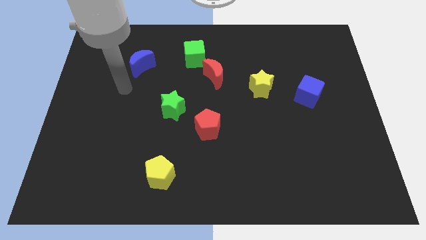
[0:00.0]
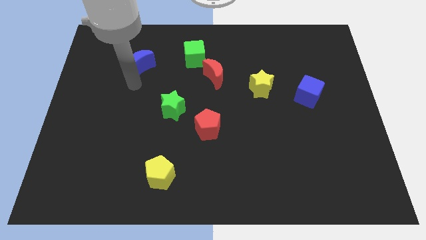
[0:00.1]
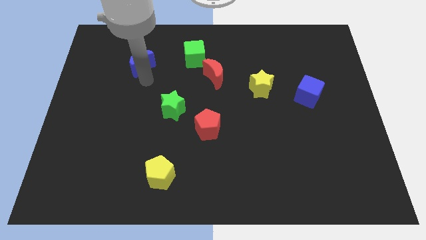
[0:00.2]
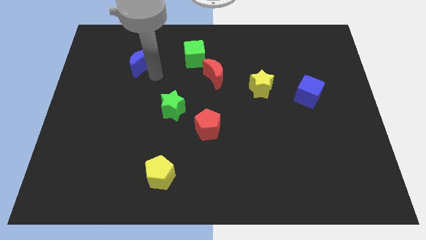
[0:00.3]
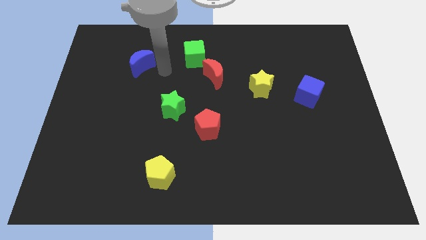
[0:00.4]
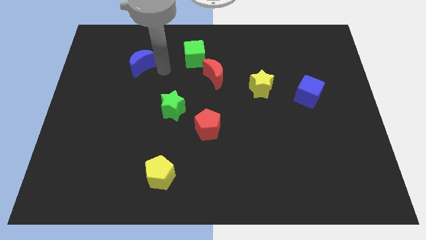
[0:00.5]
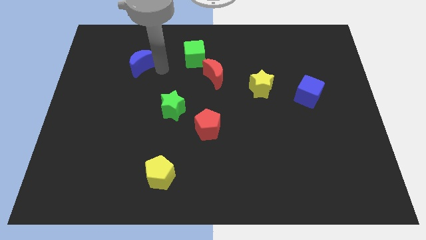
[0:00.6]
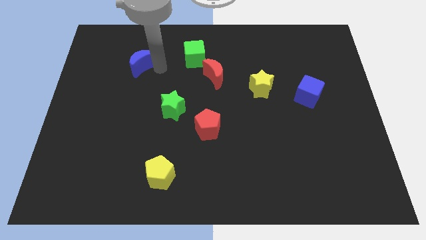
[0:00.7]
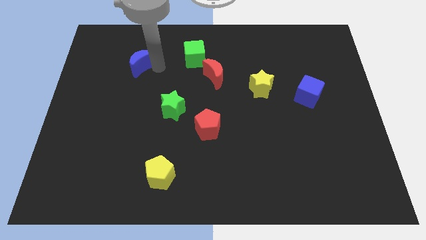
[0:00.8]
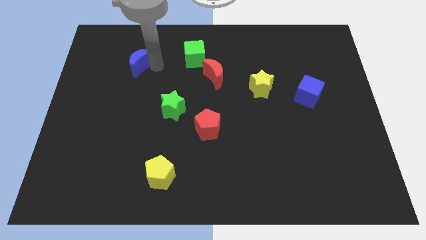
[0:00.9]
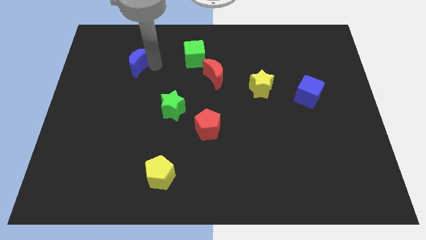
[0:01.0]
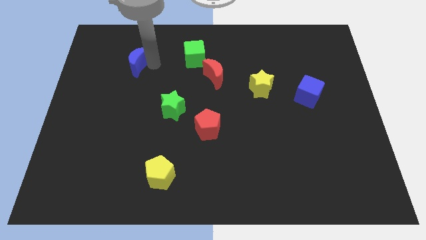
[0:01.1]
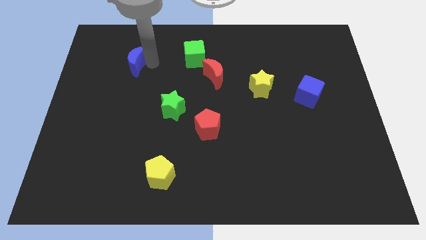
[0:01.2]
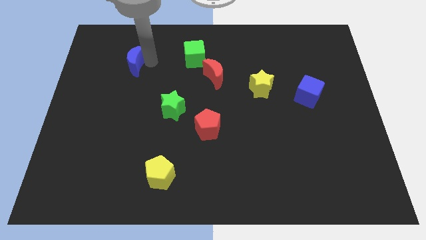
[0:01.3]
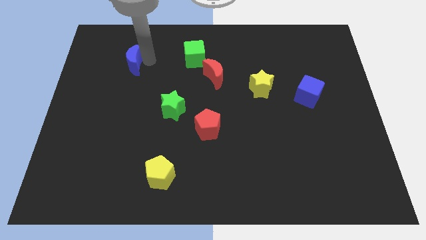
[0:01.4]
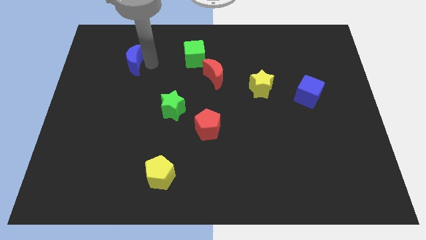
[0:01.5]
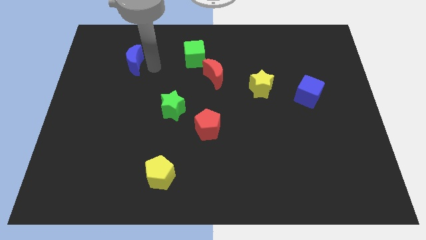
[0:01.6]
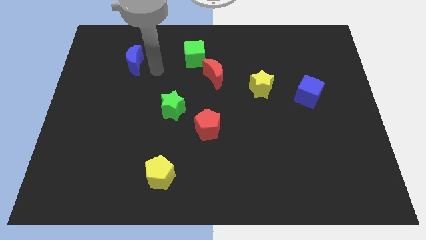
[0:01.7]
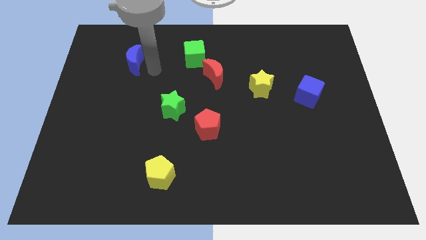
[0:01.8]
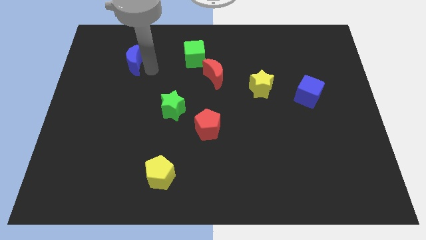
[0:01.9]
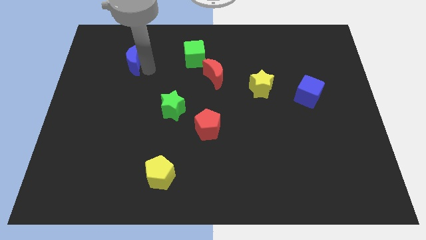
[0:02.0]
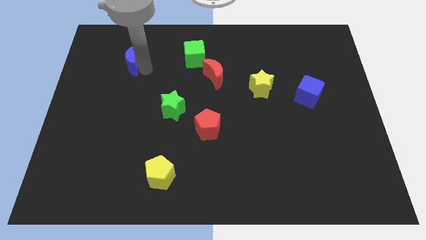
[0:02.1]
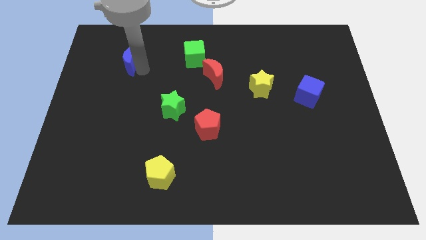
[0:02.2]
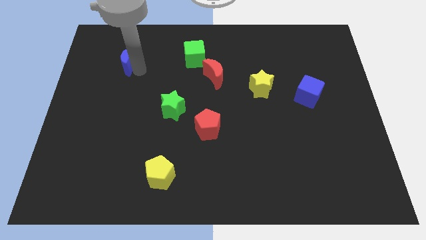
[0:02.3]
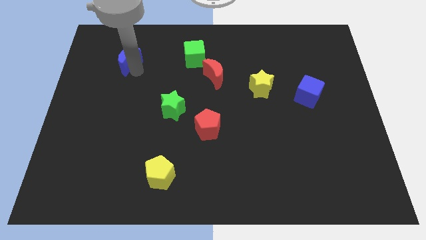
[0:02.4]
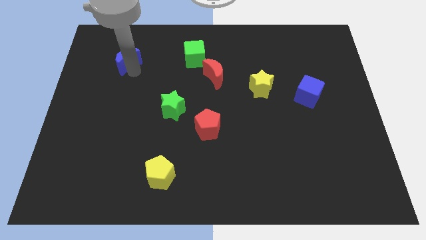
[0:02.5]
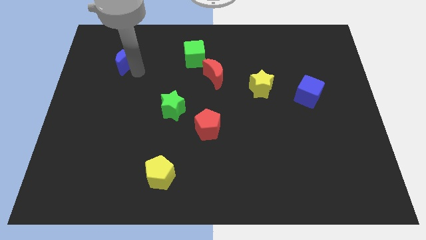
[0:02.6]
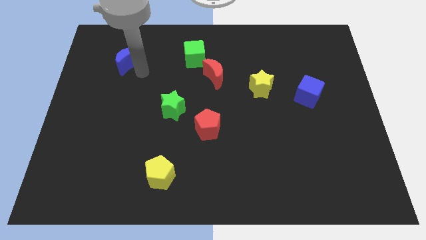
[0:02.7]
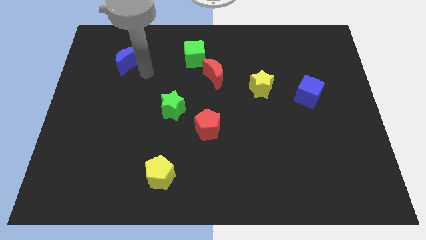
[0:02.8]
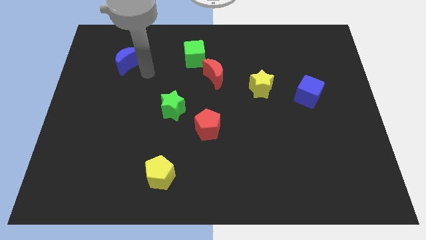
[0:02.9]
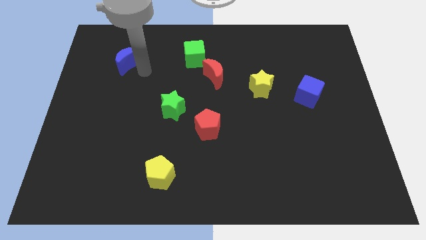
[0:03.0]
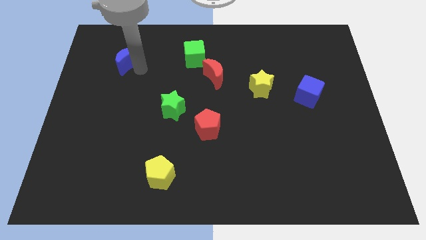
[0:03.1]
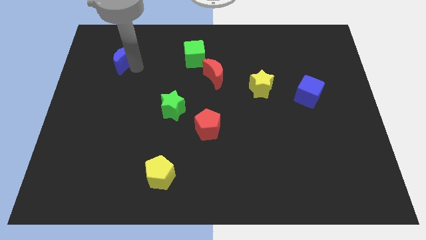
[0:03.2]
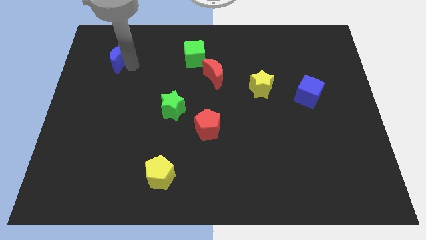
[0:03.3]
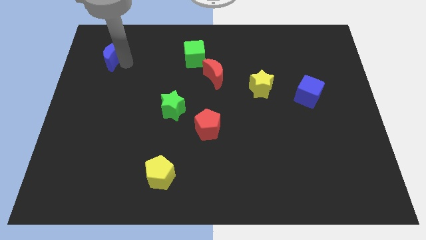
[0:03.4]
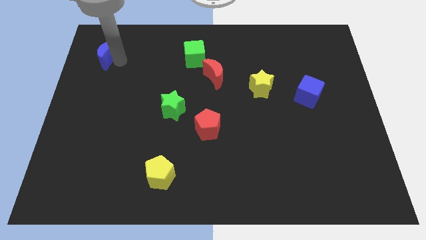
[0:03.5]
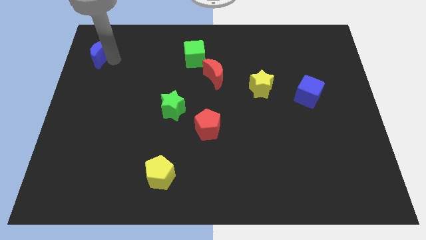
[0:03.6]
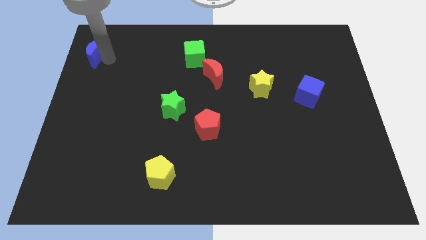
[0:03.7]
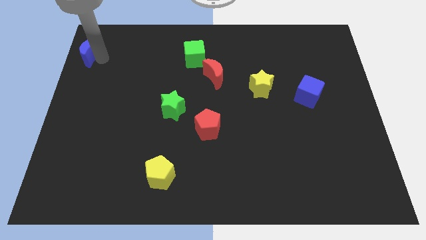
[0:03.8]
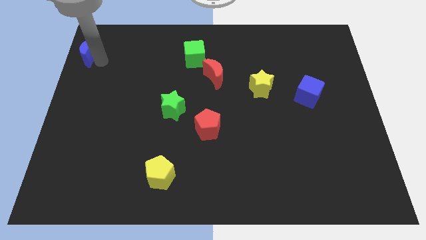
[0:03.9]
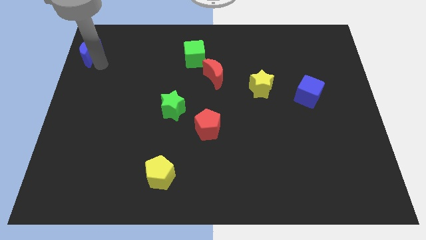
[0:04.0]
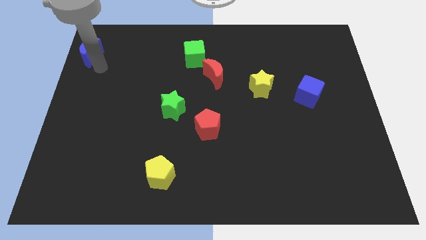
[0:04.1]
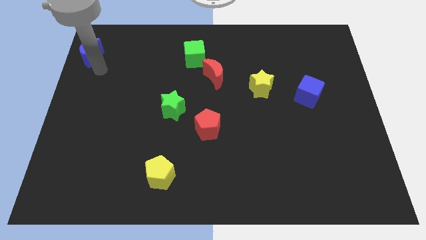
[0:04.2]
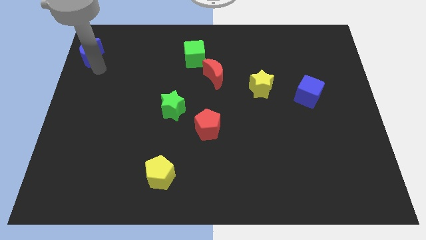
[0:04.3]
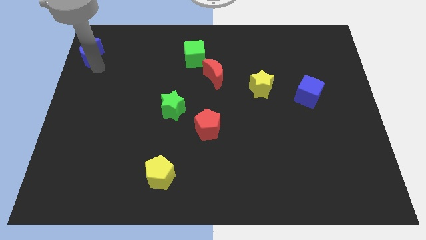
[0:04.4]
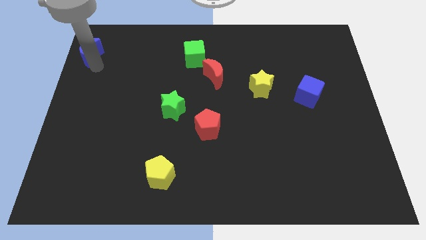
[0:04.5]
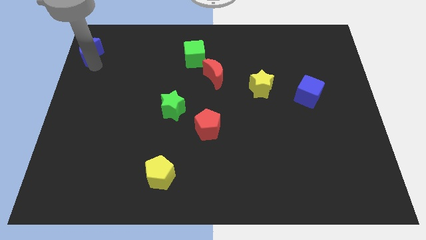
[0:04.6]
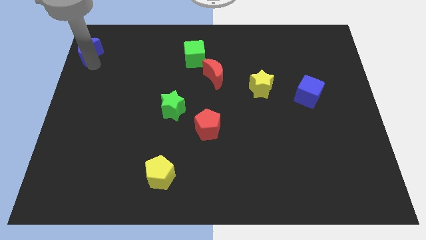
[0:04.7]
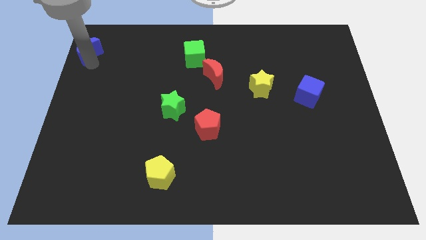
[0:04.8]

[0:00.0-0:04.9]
slide the blue moon to the upper left corner

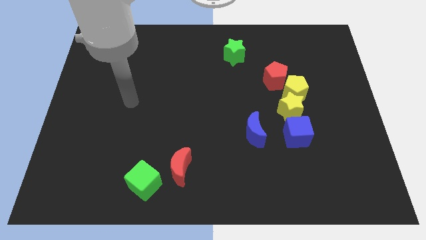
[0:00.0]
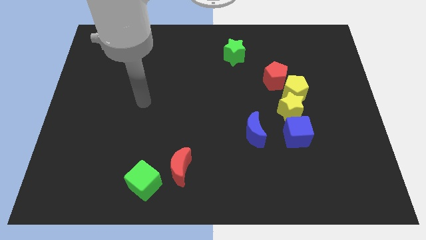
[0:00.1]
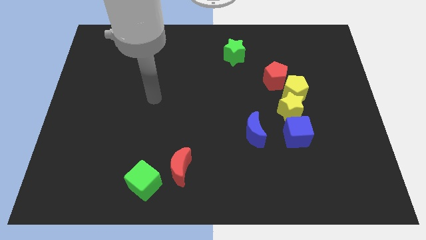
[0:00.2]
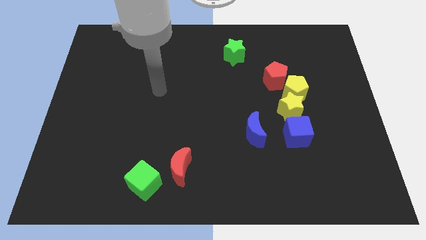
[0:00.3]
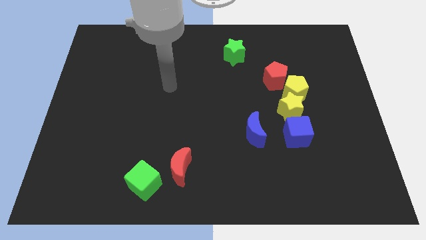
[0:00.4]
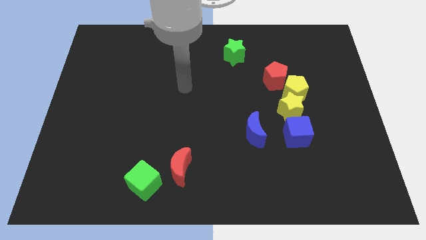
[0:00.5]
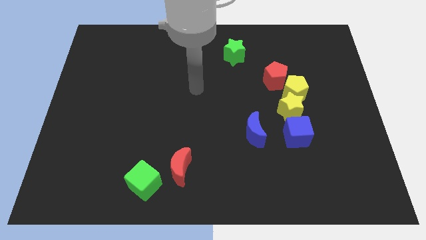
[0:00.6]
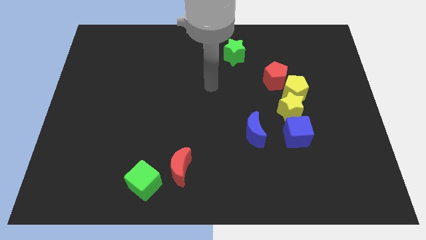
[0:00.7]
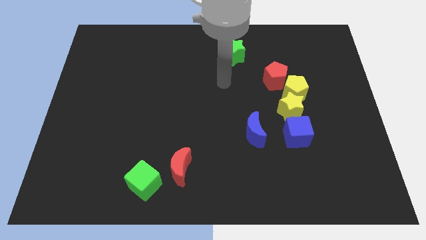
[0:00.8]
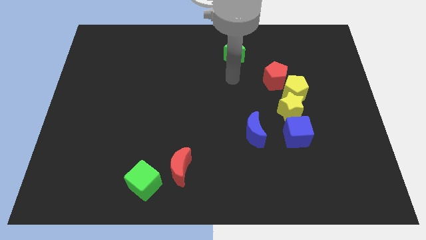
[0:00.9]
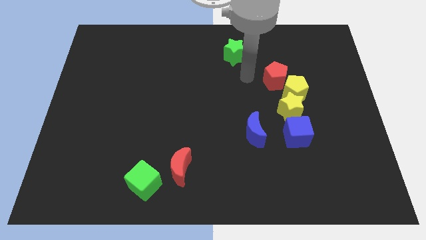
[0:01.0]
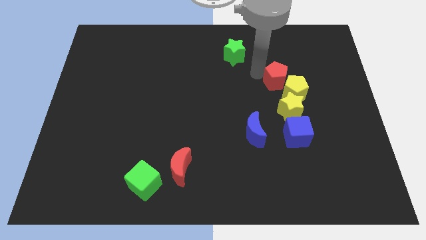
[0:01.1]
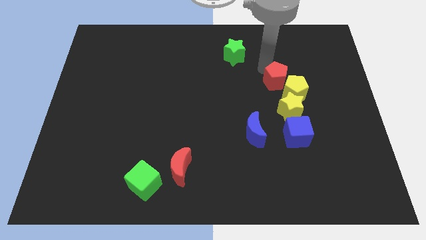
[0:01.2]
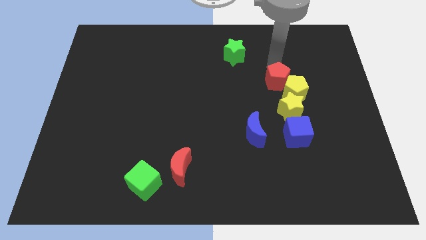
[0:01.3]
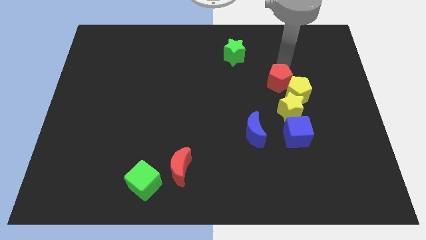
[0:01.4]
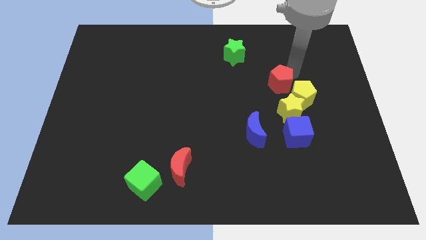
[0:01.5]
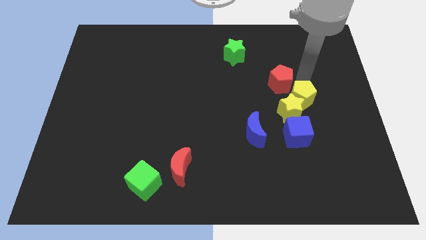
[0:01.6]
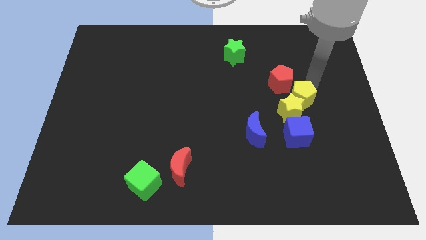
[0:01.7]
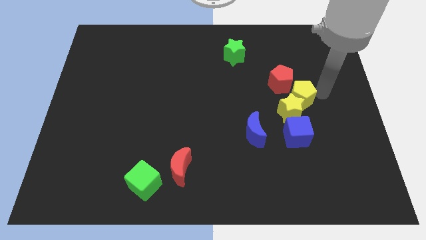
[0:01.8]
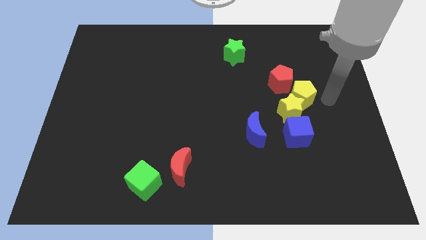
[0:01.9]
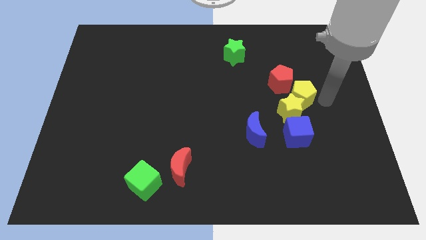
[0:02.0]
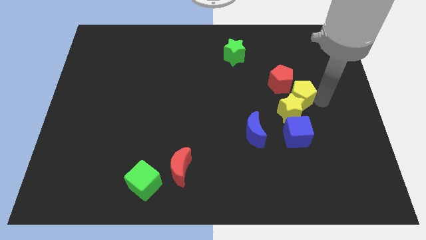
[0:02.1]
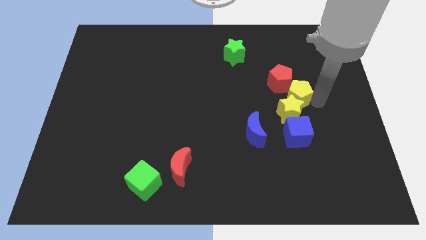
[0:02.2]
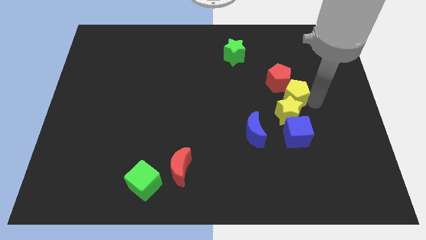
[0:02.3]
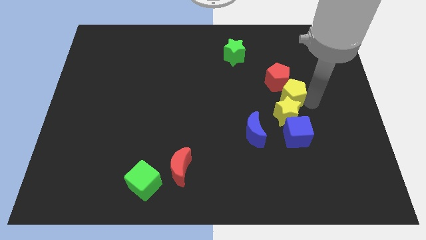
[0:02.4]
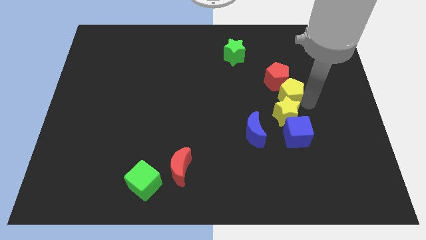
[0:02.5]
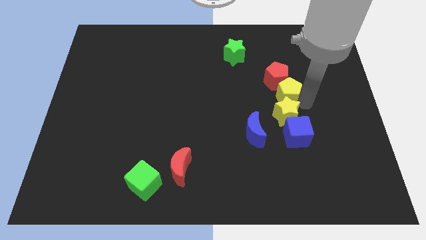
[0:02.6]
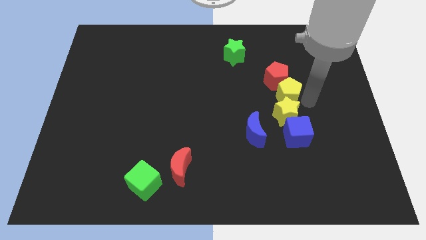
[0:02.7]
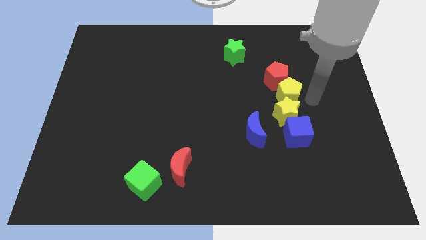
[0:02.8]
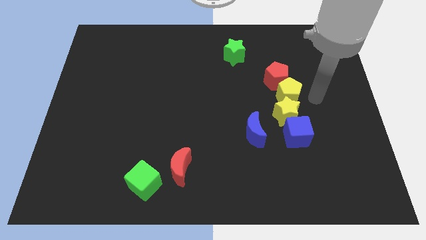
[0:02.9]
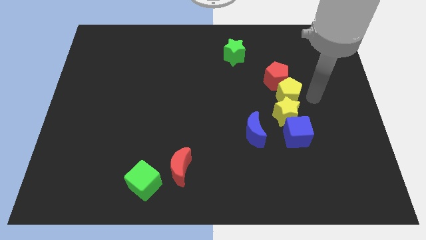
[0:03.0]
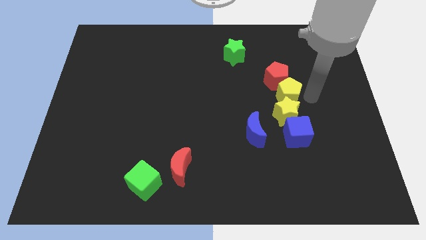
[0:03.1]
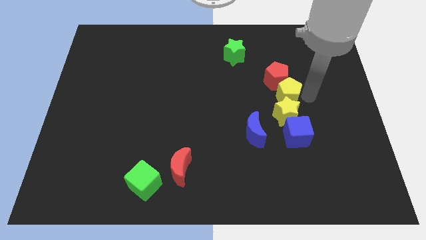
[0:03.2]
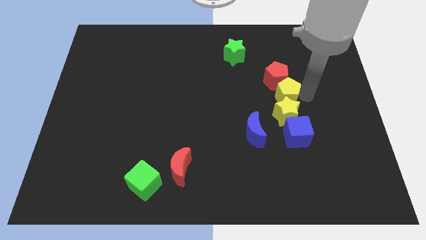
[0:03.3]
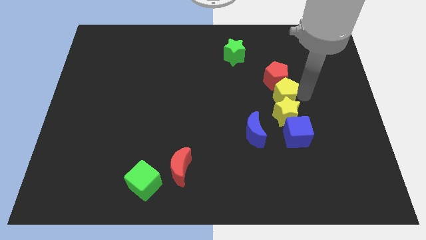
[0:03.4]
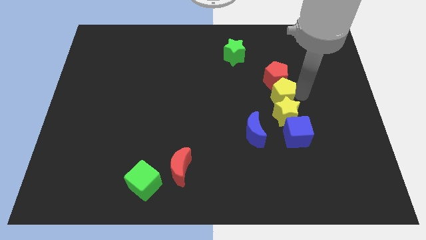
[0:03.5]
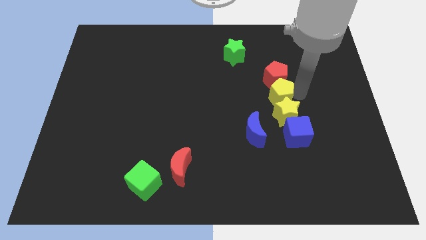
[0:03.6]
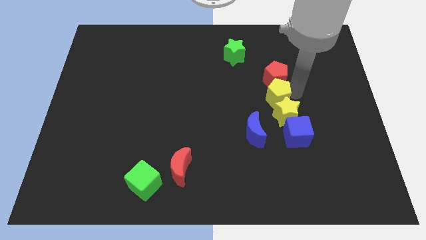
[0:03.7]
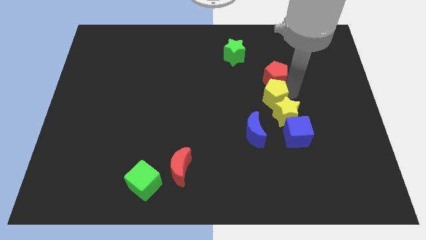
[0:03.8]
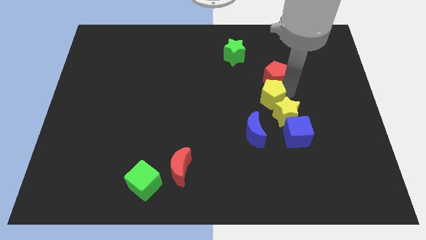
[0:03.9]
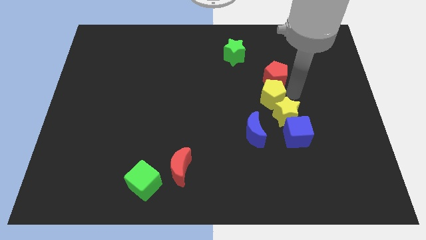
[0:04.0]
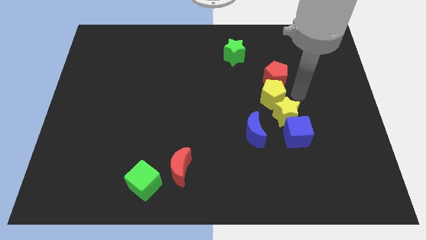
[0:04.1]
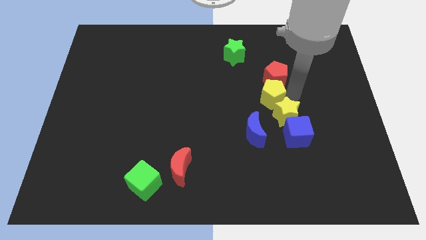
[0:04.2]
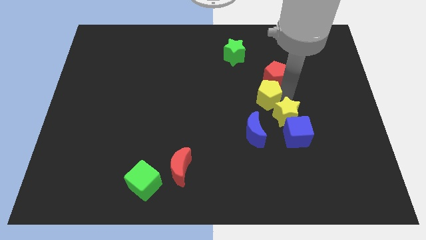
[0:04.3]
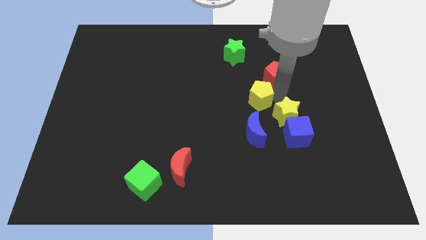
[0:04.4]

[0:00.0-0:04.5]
push the yellow pentagon to the middle of the board
